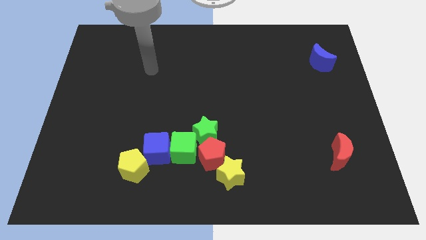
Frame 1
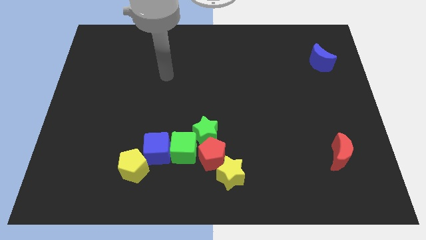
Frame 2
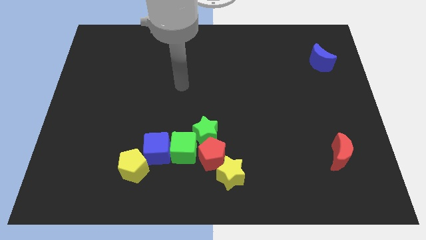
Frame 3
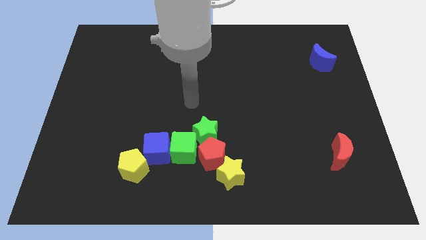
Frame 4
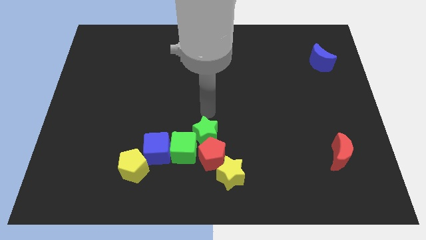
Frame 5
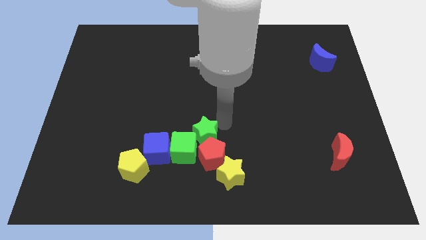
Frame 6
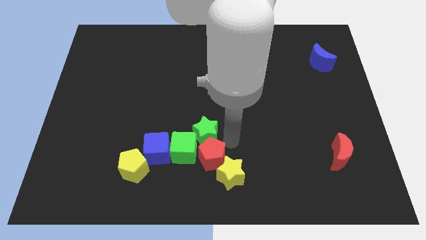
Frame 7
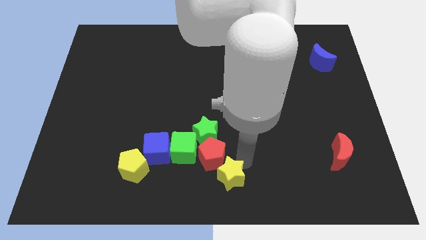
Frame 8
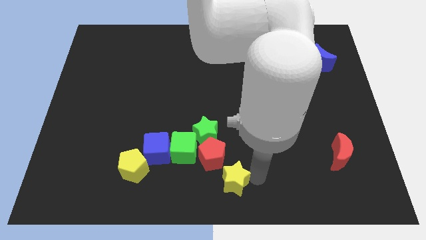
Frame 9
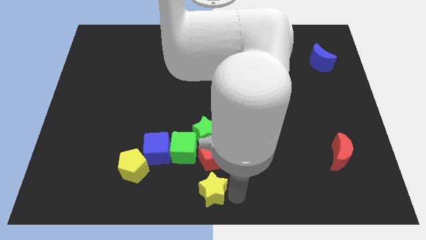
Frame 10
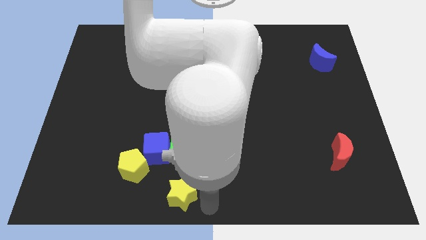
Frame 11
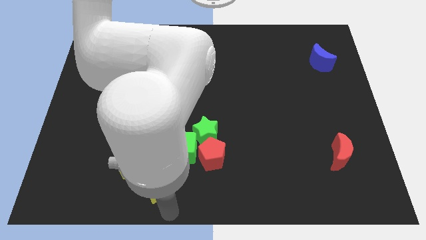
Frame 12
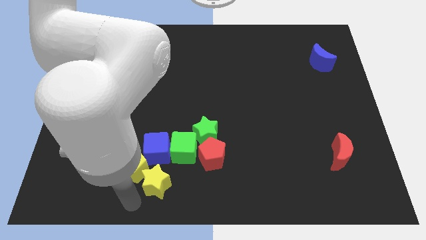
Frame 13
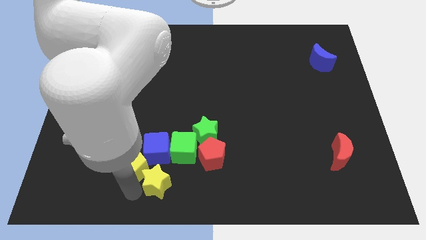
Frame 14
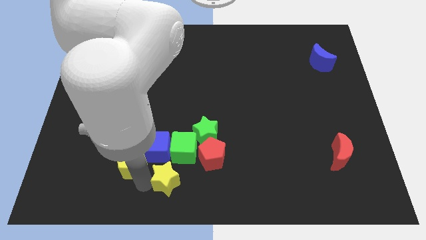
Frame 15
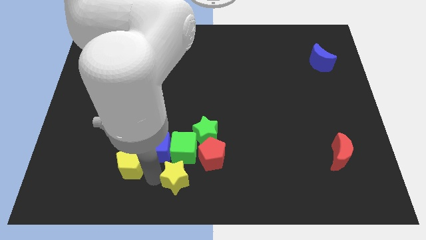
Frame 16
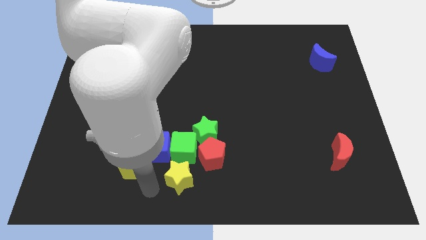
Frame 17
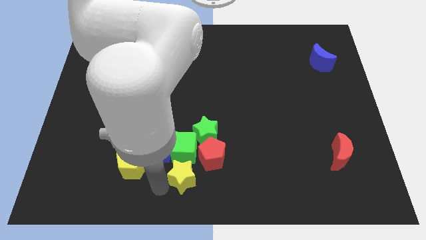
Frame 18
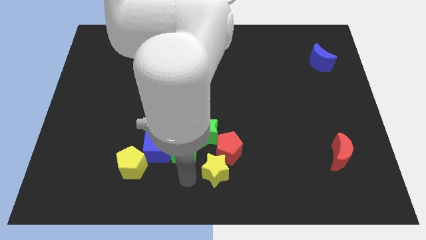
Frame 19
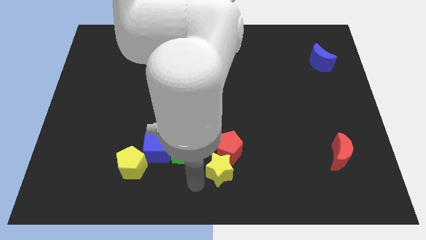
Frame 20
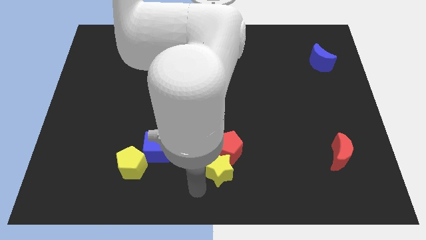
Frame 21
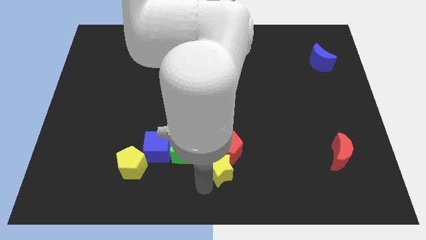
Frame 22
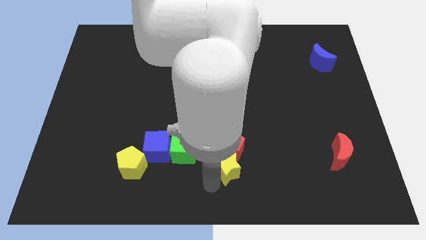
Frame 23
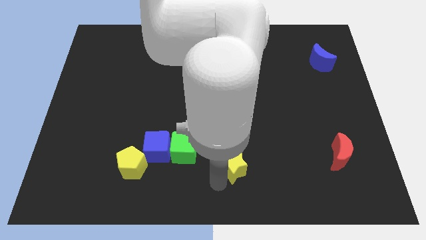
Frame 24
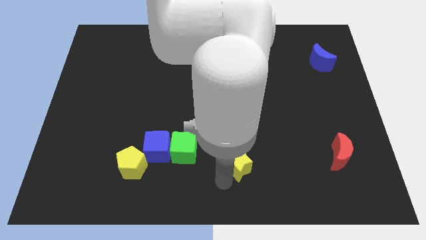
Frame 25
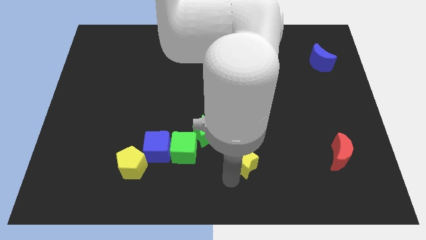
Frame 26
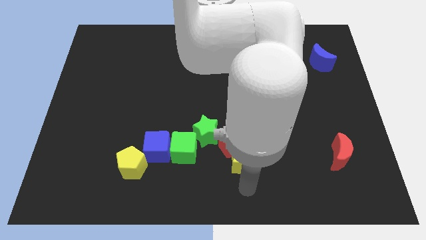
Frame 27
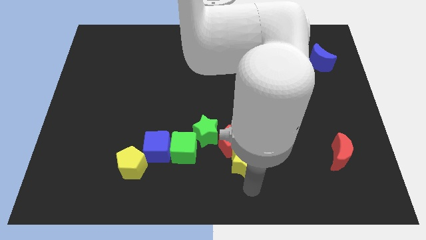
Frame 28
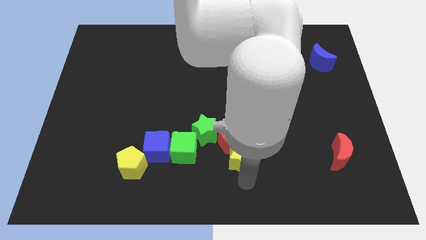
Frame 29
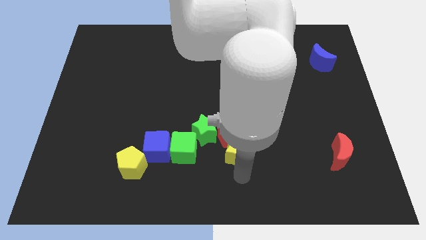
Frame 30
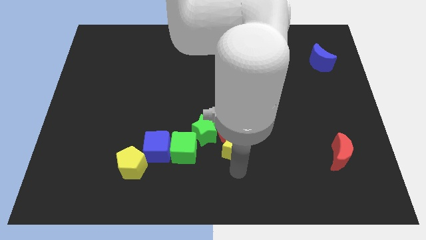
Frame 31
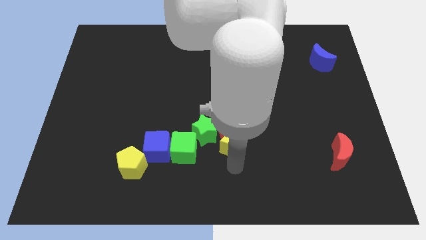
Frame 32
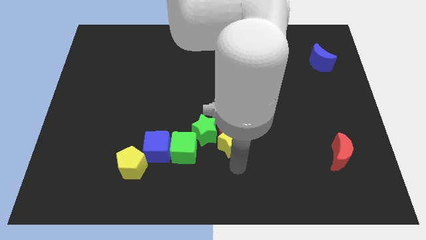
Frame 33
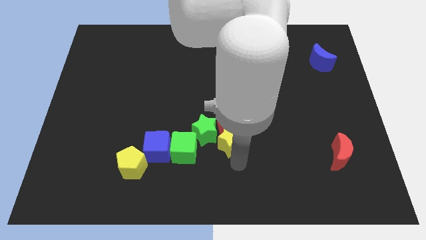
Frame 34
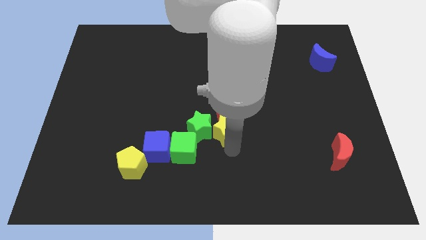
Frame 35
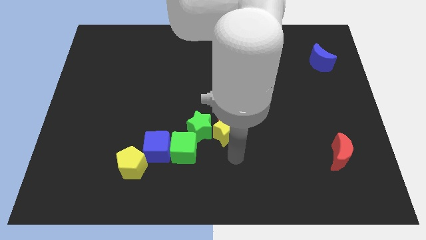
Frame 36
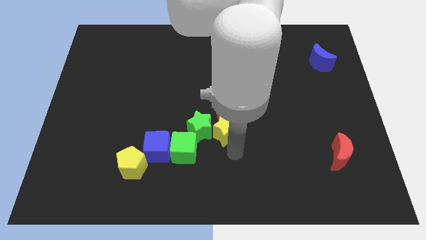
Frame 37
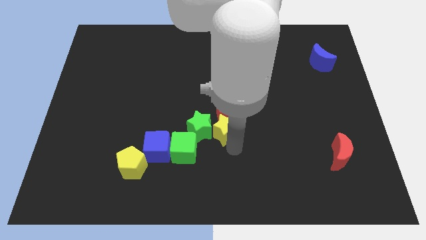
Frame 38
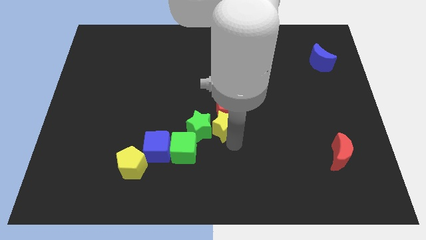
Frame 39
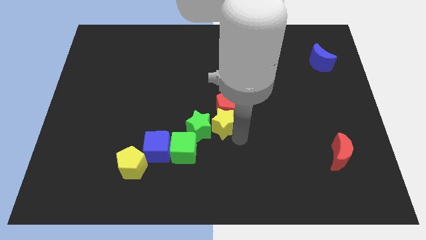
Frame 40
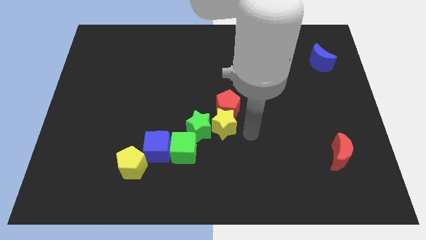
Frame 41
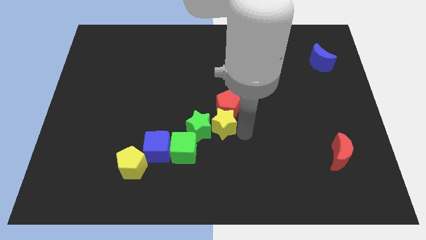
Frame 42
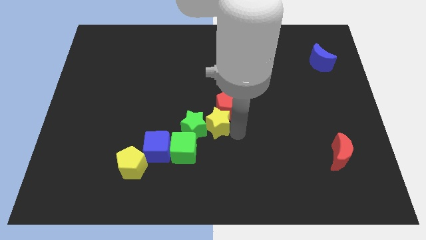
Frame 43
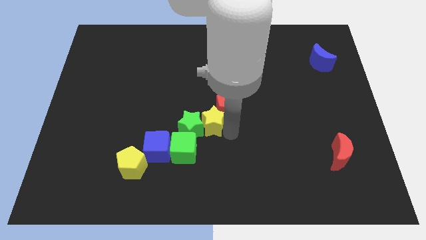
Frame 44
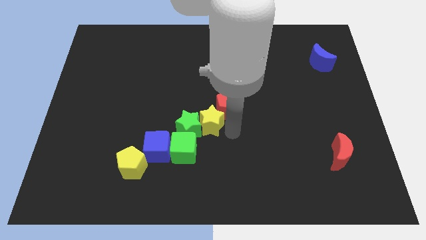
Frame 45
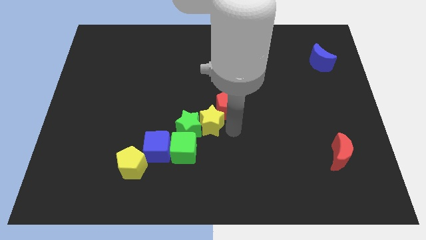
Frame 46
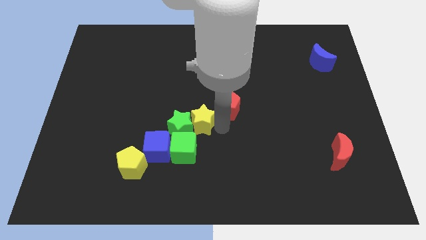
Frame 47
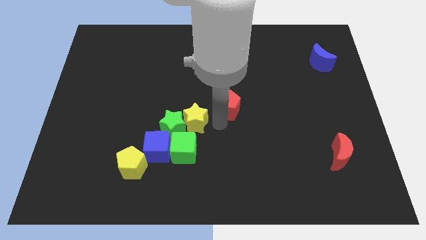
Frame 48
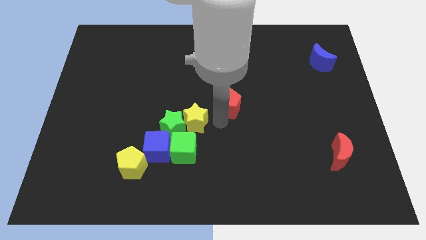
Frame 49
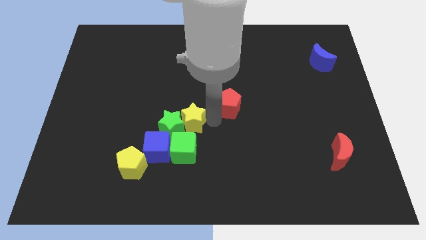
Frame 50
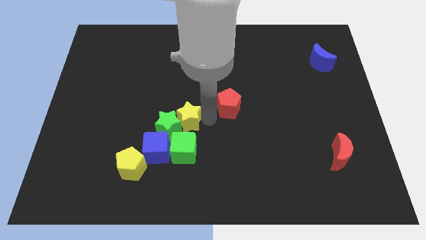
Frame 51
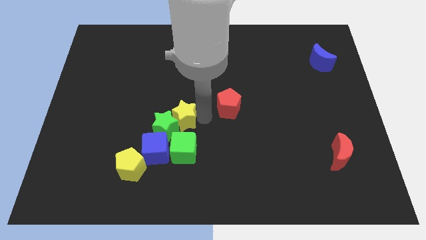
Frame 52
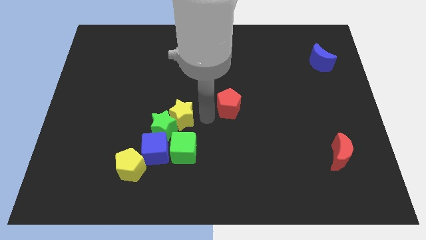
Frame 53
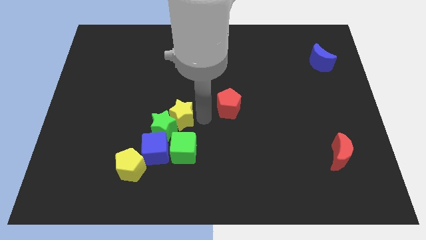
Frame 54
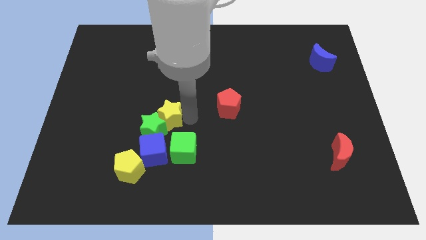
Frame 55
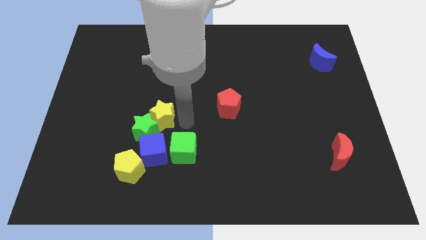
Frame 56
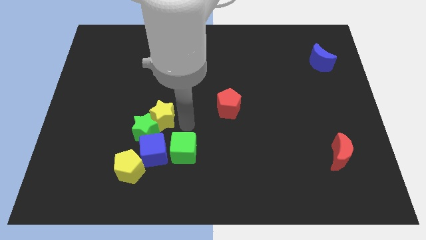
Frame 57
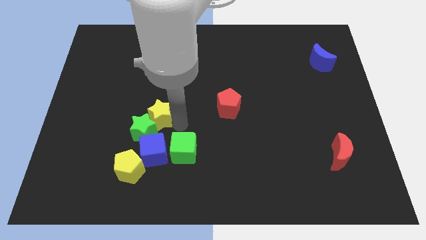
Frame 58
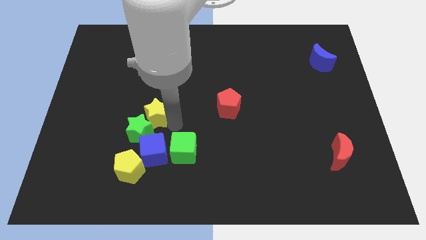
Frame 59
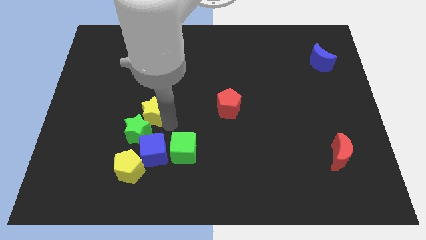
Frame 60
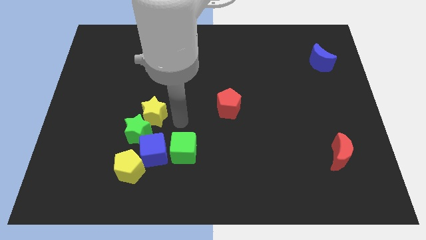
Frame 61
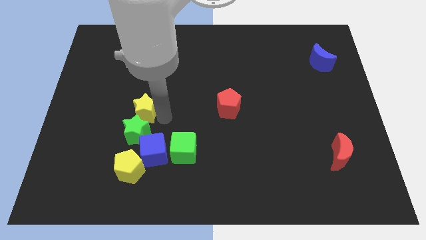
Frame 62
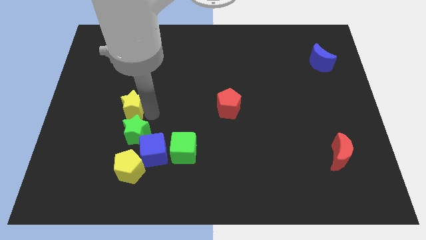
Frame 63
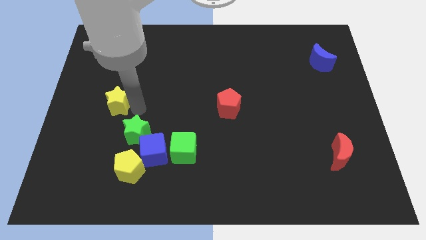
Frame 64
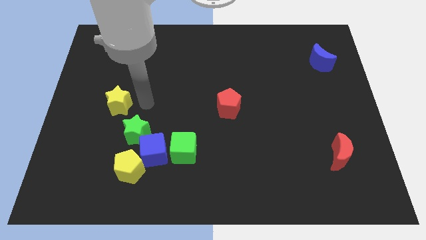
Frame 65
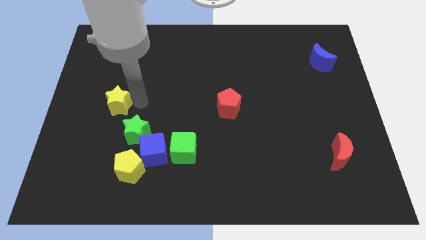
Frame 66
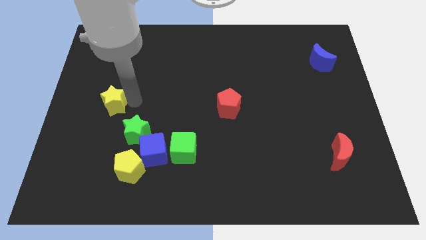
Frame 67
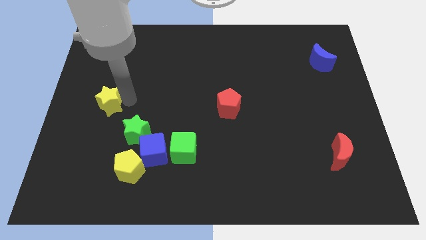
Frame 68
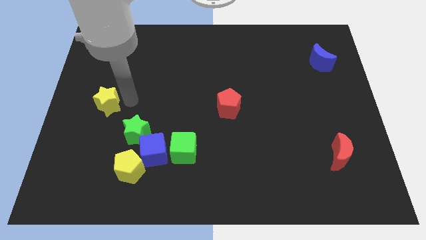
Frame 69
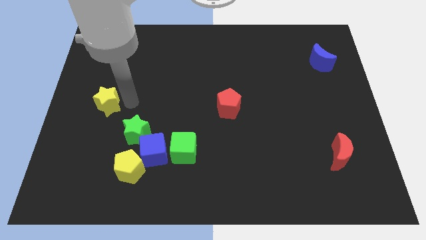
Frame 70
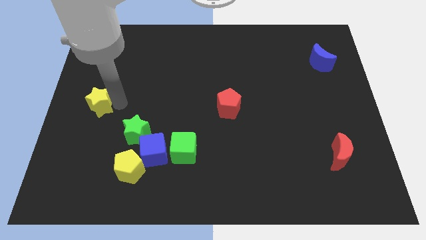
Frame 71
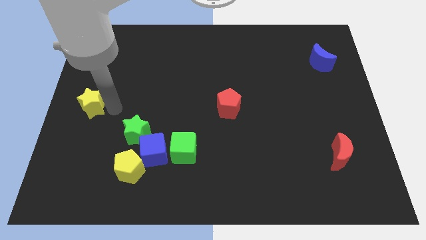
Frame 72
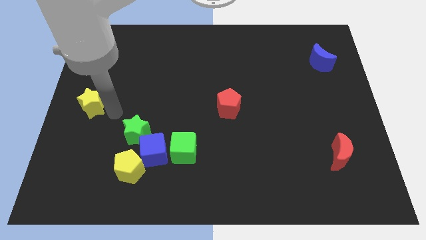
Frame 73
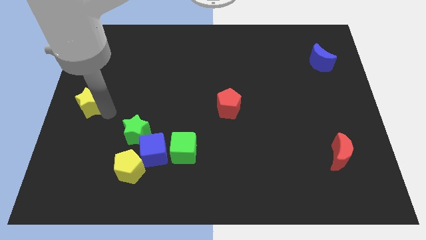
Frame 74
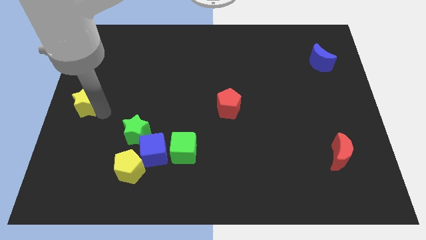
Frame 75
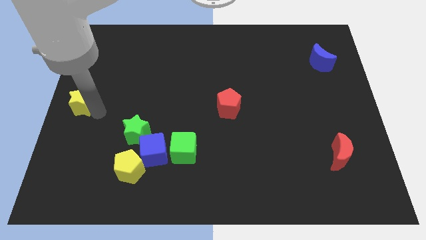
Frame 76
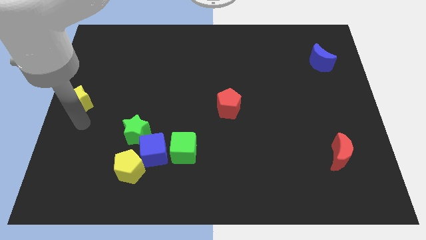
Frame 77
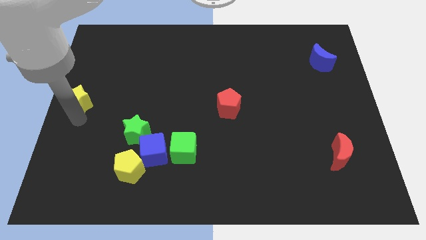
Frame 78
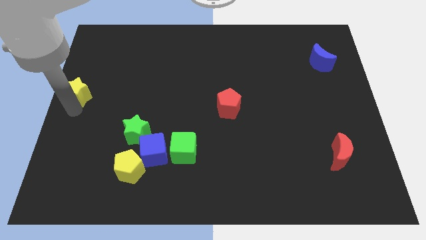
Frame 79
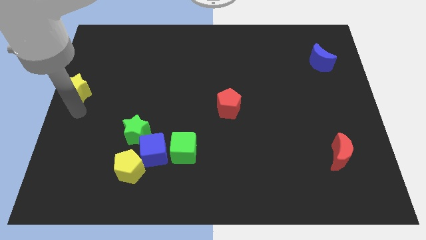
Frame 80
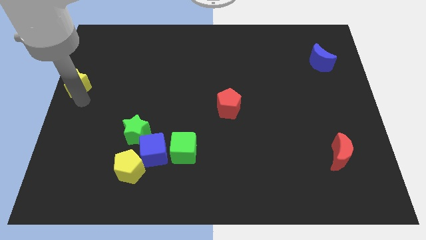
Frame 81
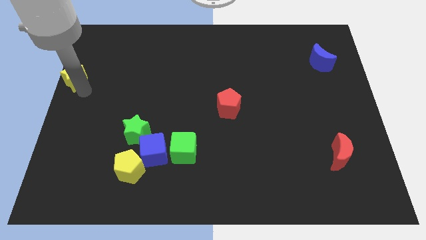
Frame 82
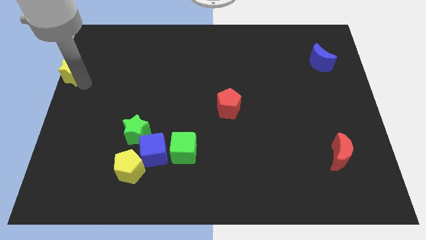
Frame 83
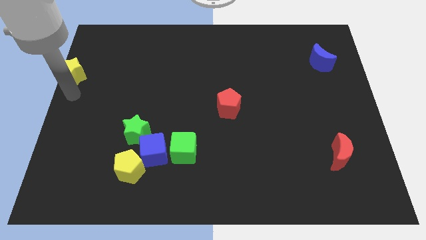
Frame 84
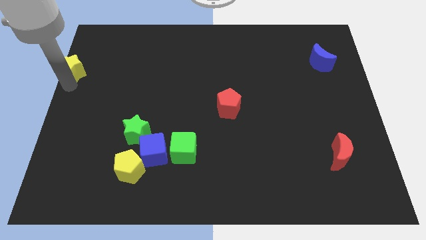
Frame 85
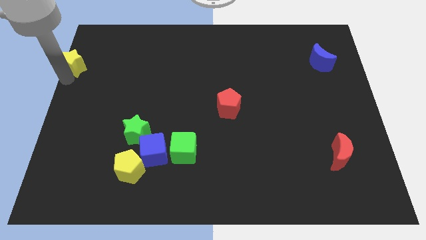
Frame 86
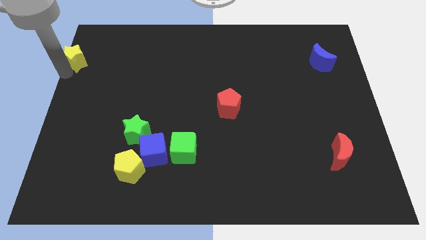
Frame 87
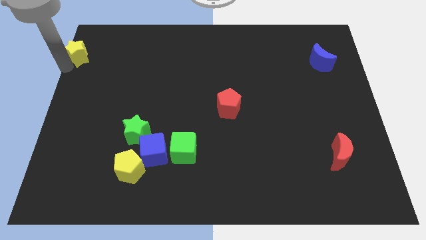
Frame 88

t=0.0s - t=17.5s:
move the yellow star to the top left of the board
